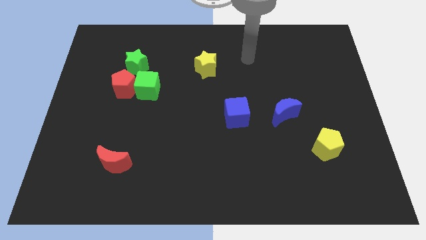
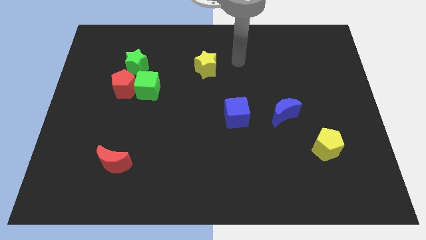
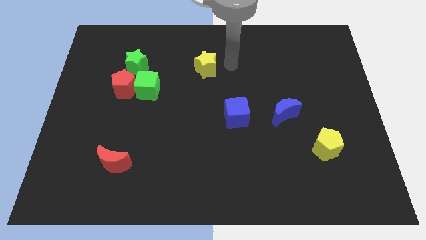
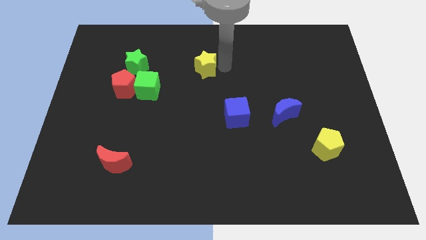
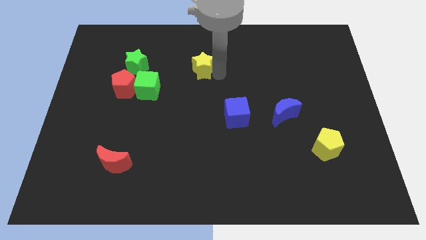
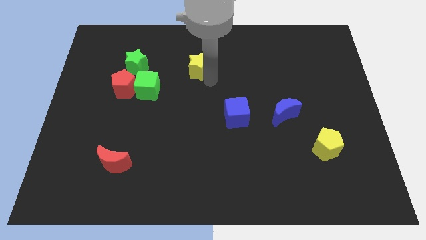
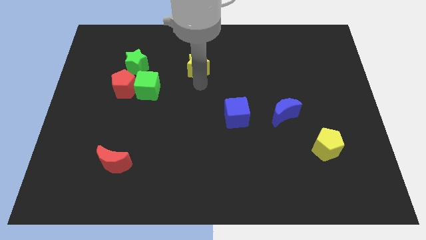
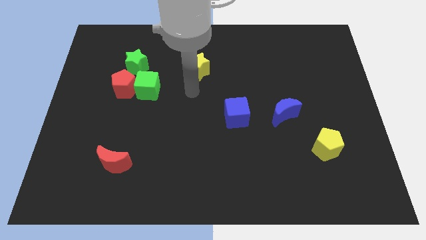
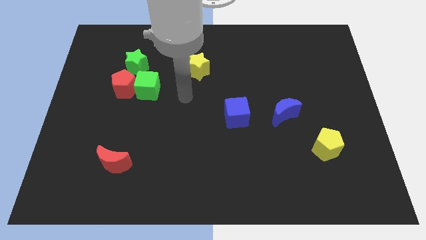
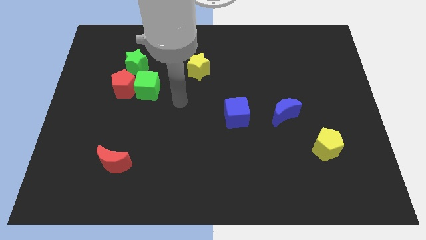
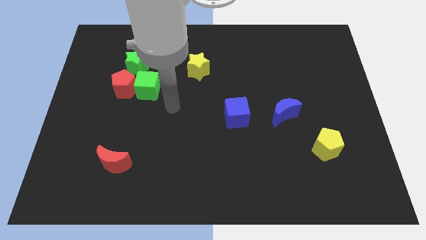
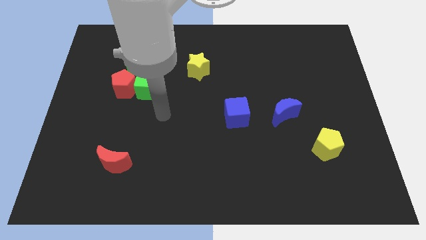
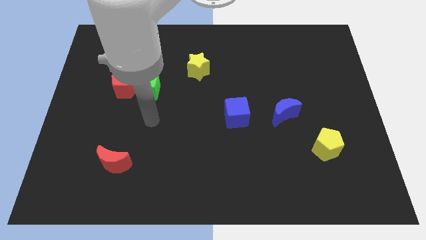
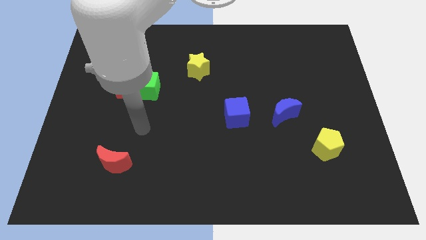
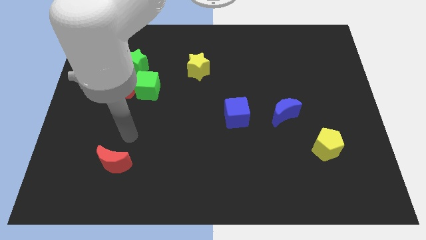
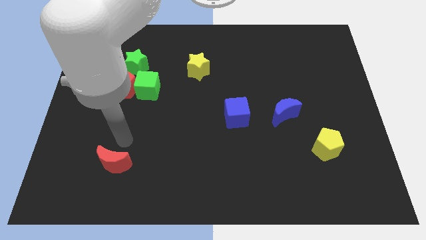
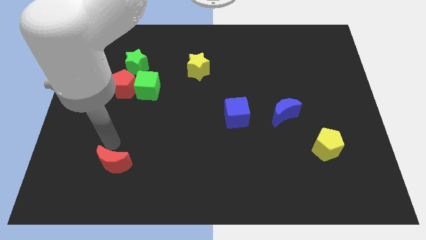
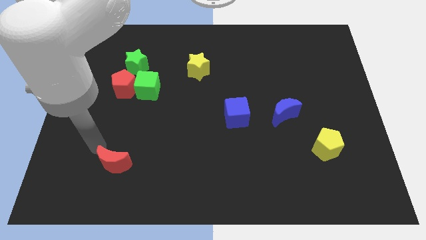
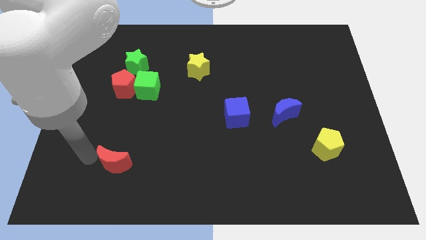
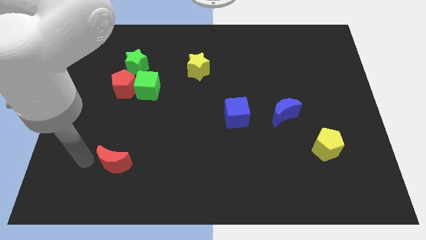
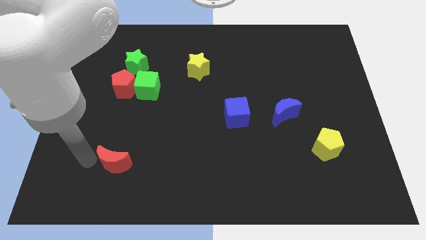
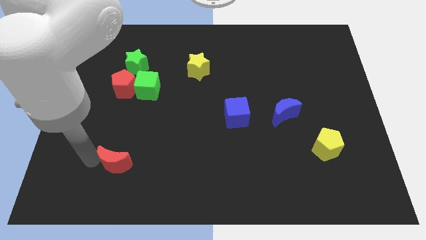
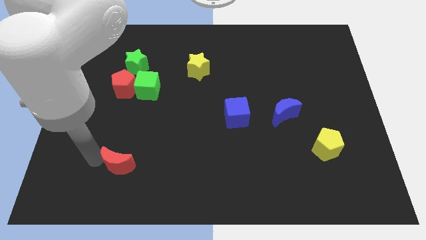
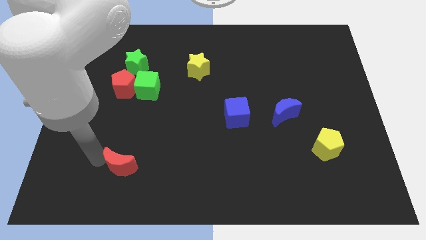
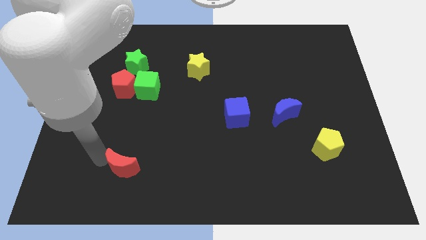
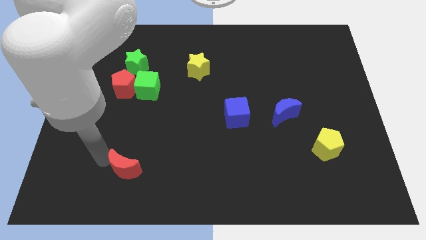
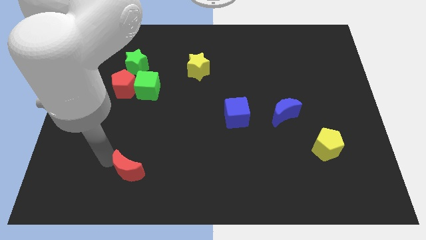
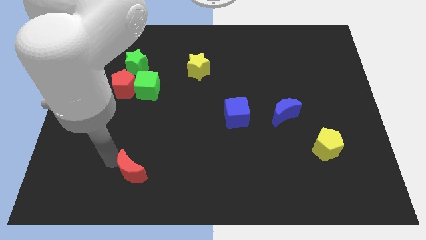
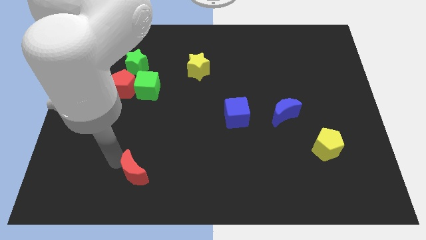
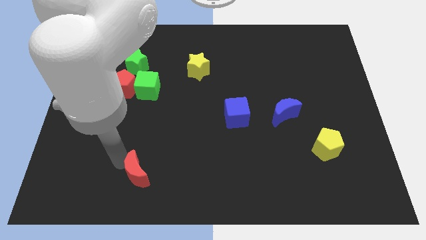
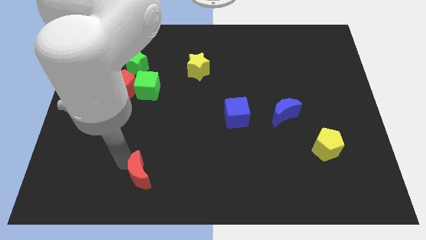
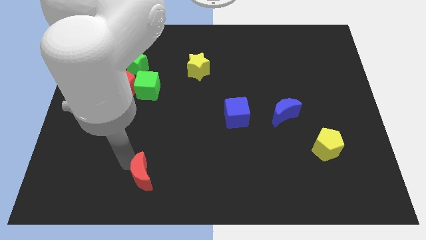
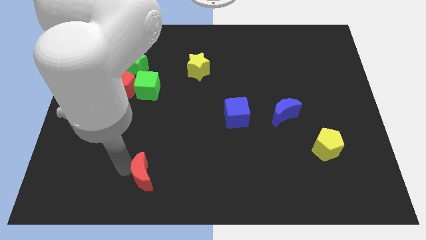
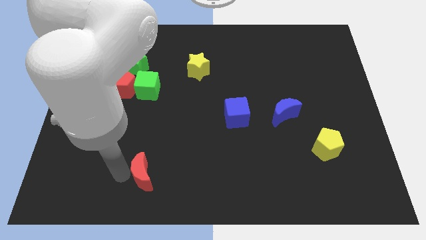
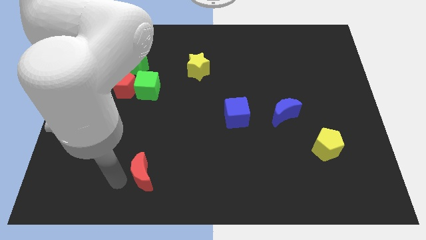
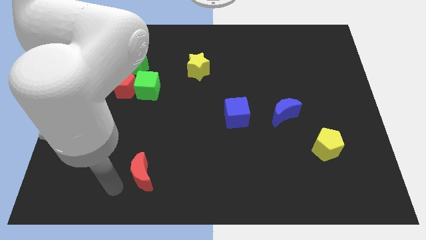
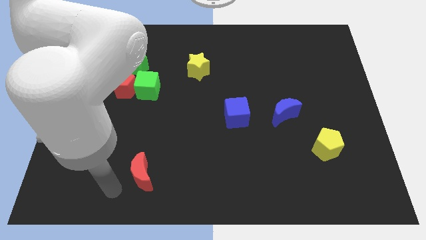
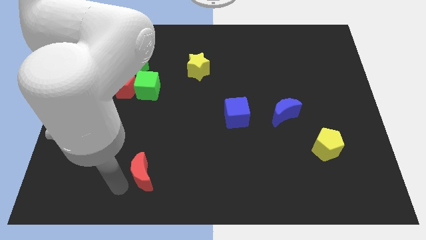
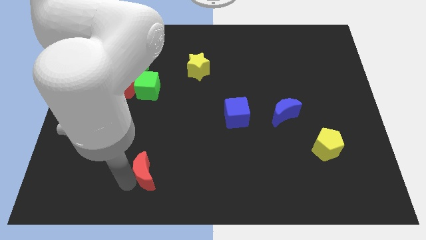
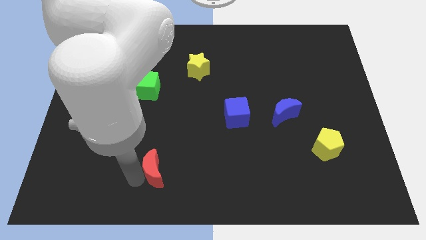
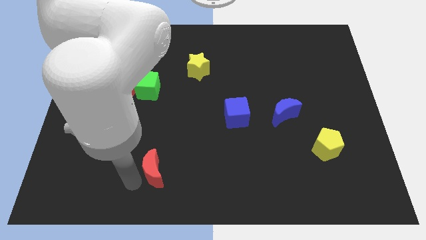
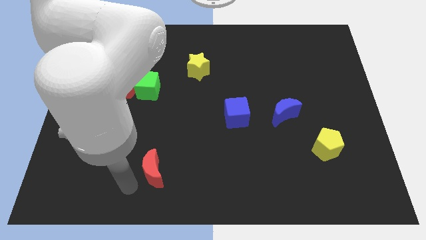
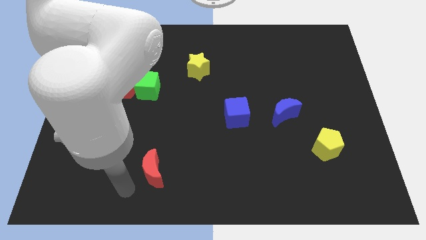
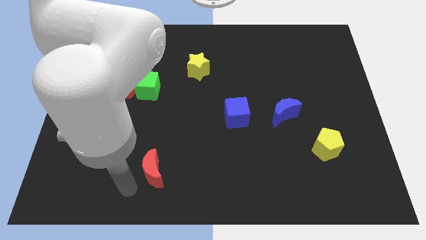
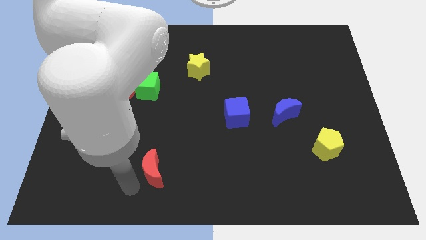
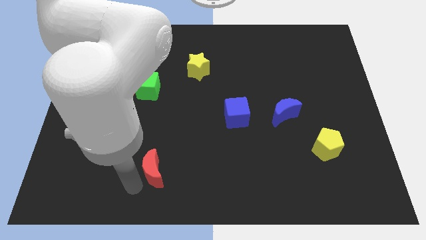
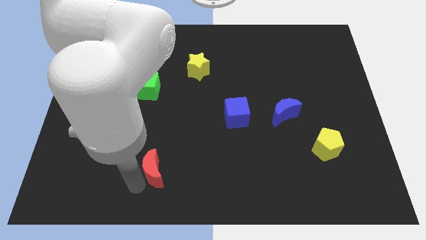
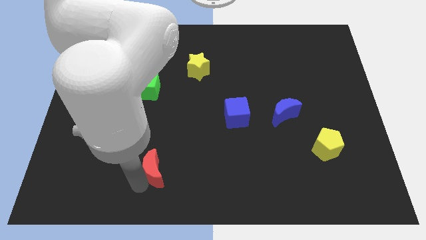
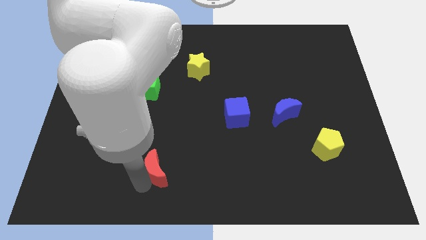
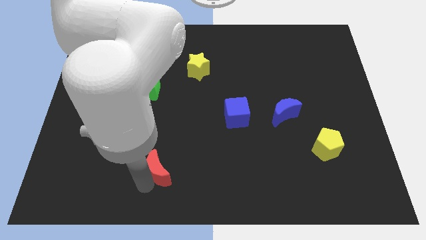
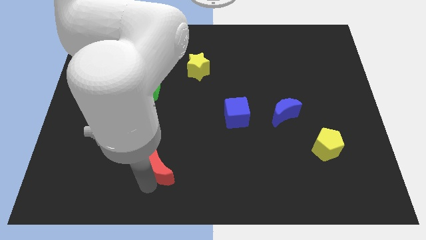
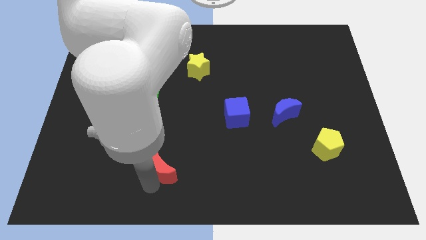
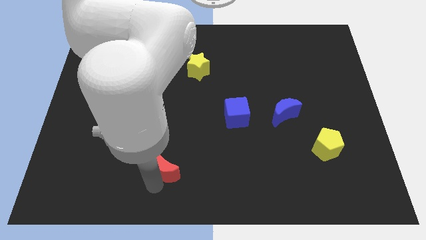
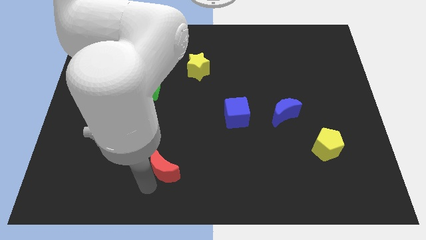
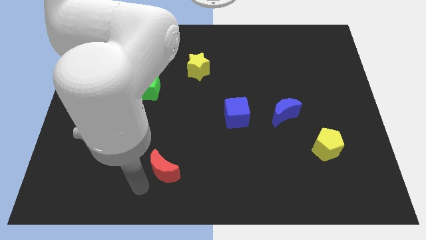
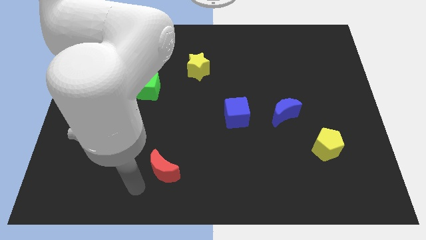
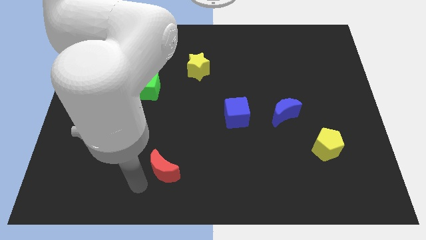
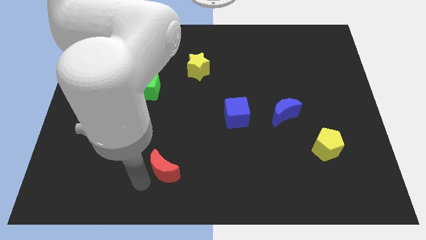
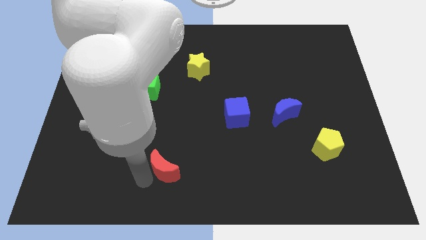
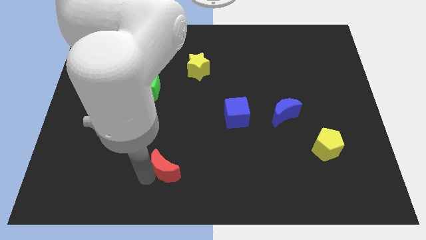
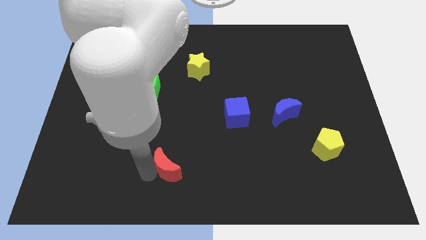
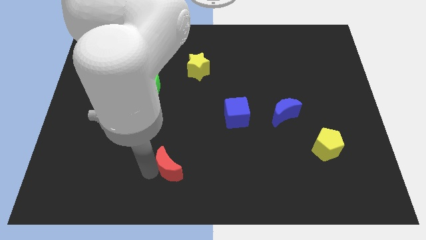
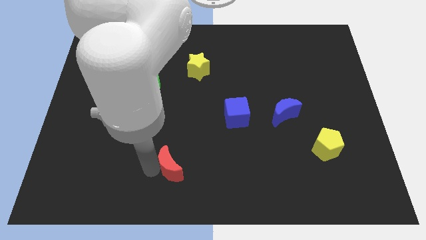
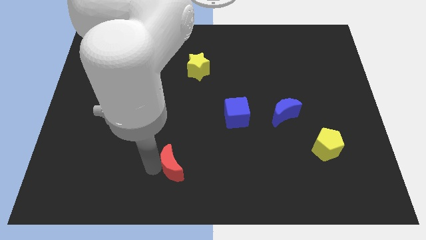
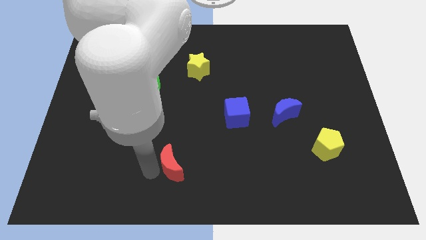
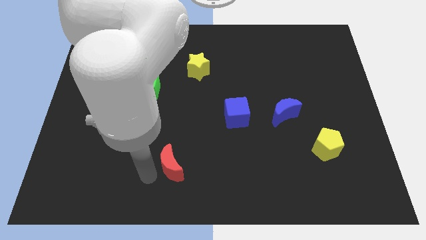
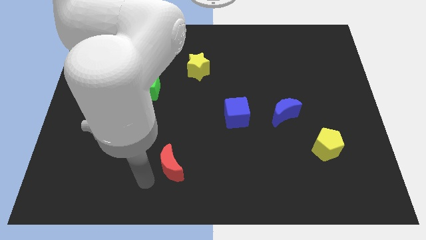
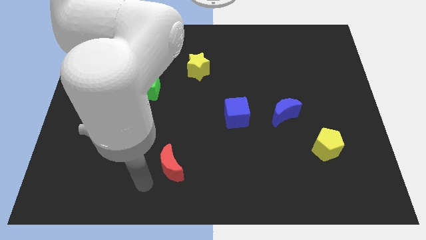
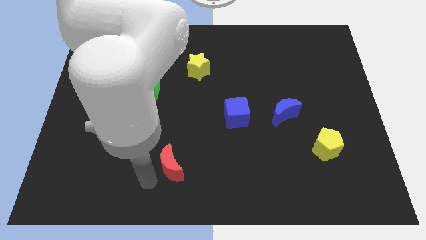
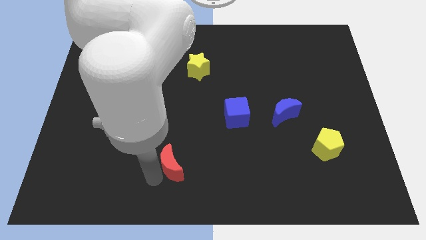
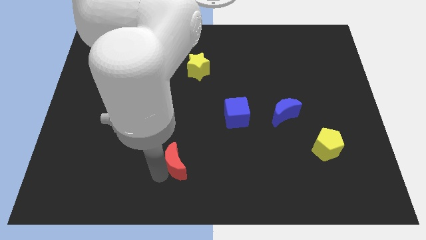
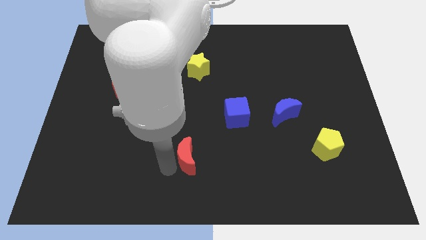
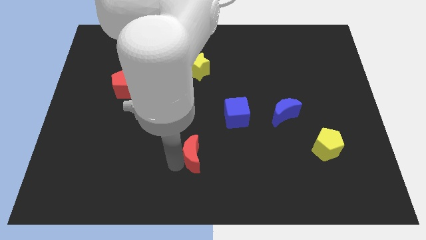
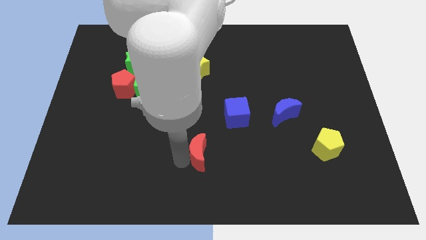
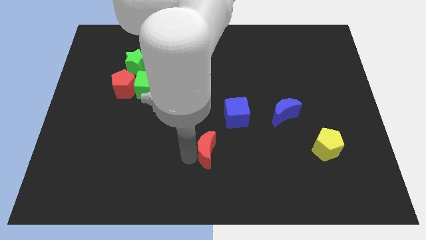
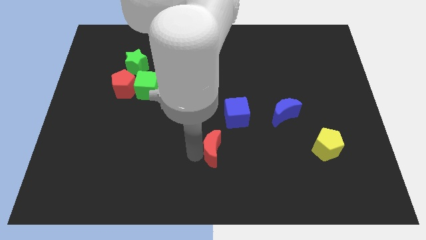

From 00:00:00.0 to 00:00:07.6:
move the red moon to the right

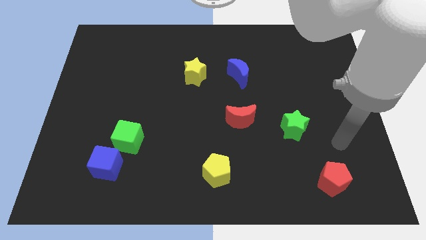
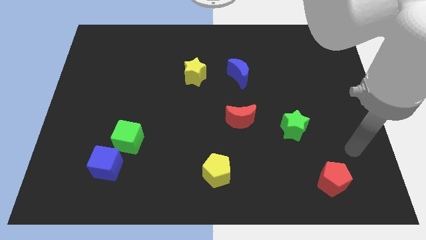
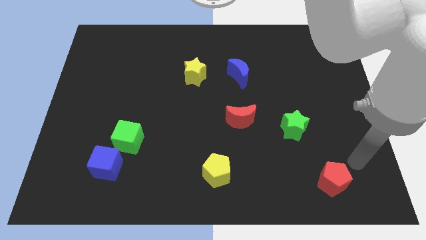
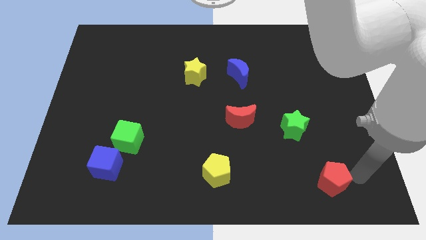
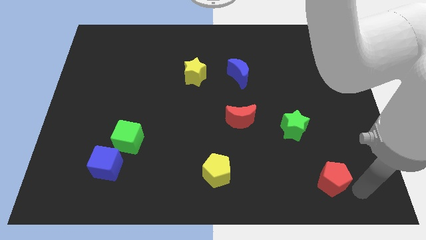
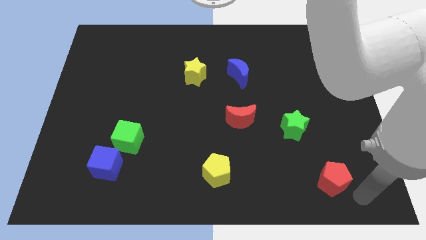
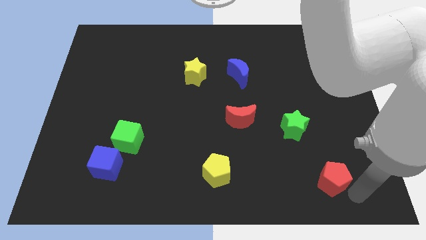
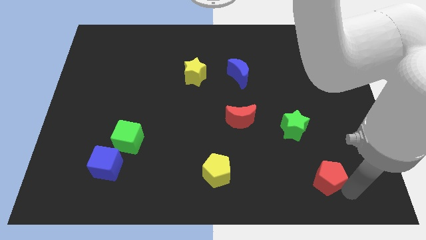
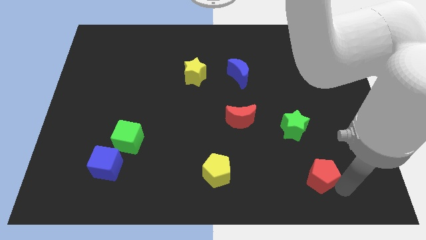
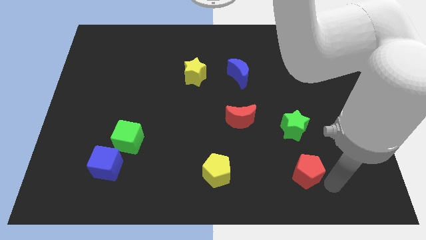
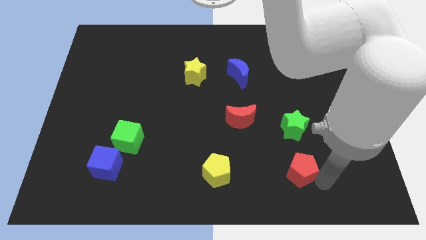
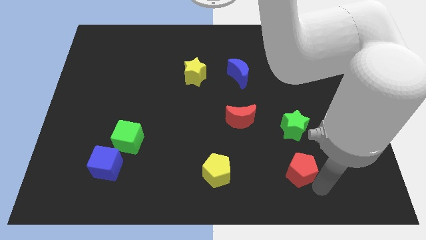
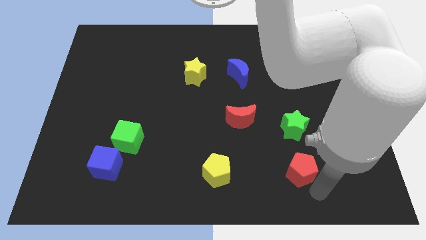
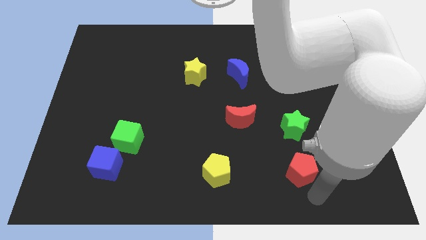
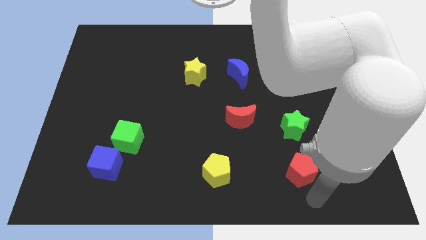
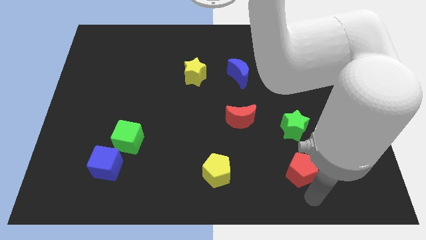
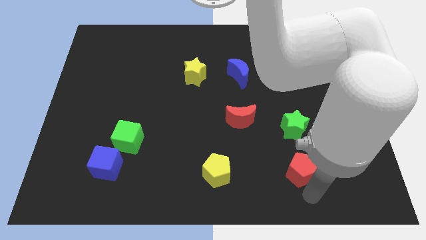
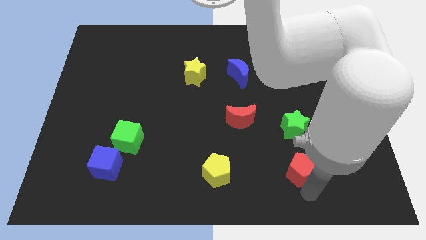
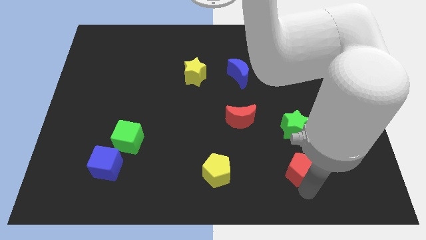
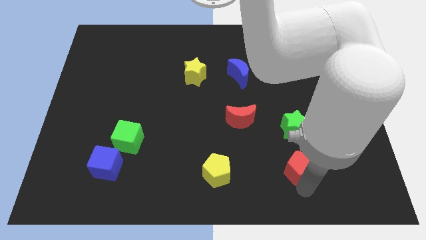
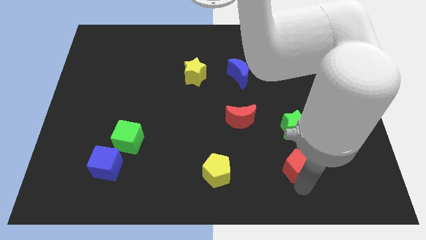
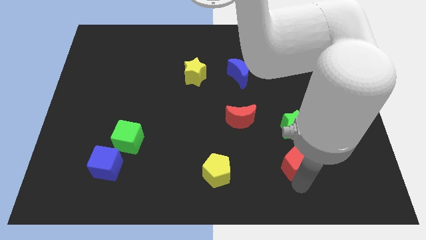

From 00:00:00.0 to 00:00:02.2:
slide the red pentagon a bit upwards and left
